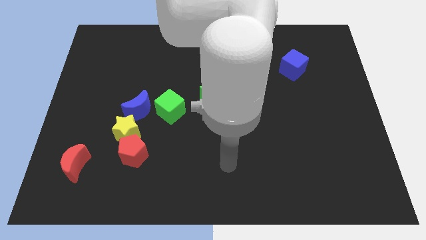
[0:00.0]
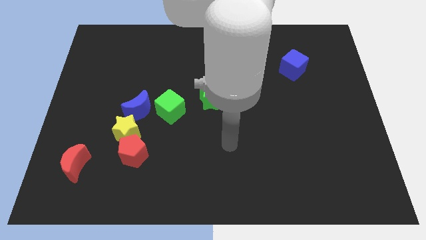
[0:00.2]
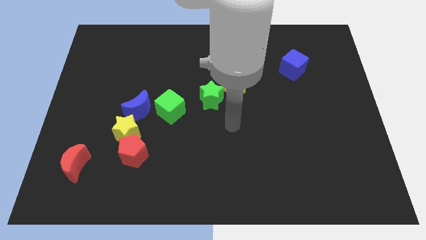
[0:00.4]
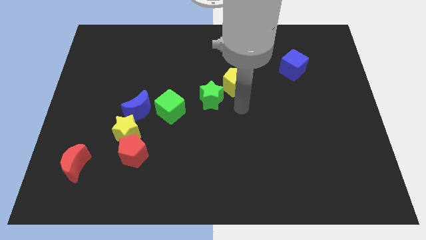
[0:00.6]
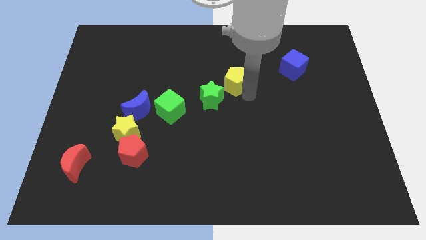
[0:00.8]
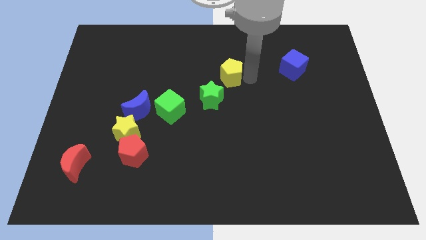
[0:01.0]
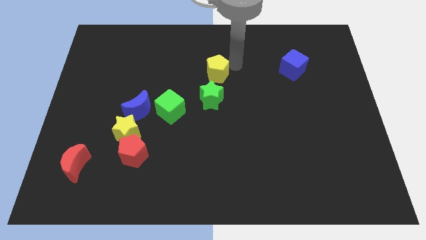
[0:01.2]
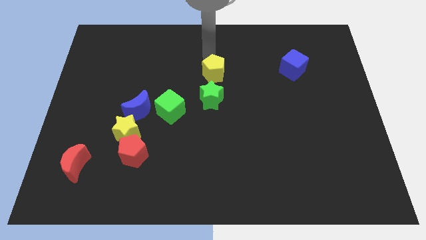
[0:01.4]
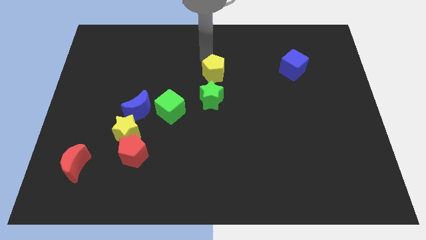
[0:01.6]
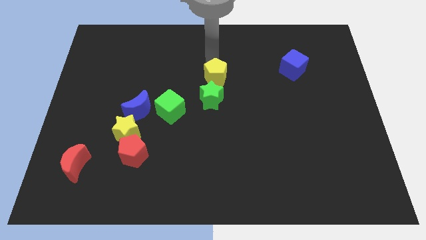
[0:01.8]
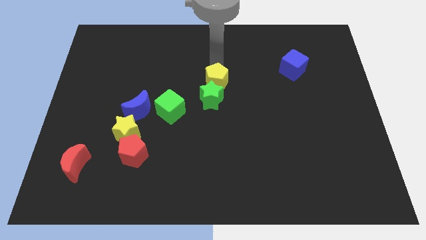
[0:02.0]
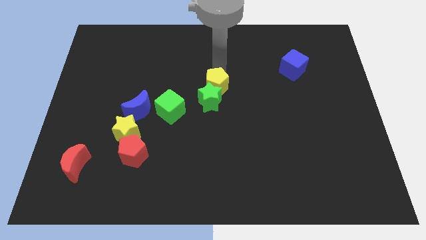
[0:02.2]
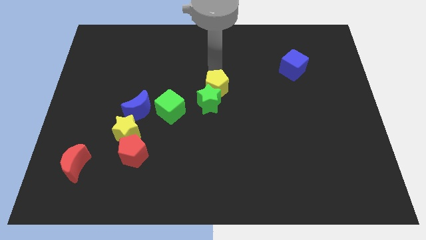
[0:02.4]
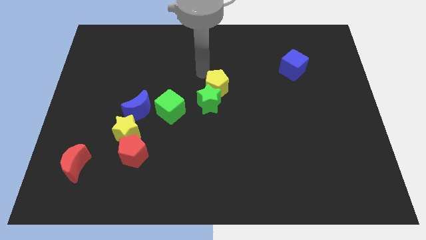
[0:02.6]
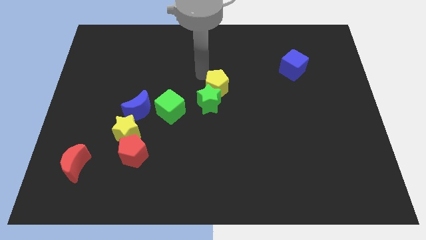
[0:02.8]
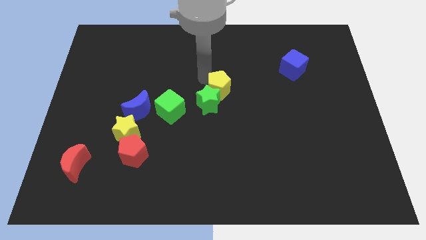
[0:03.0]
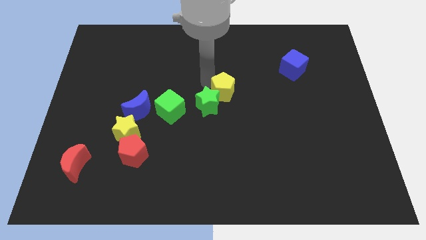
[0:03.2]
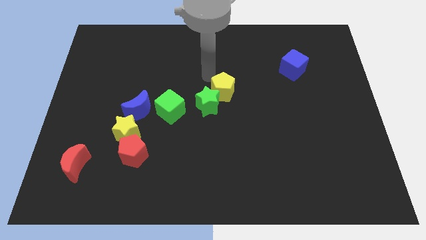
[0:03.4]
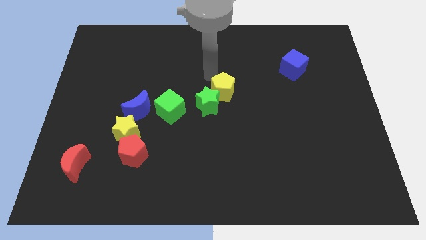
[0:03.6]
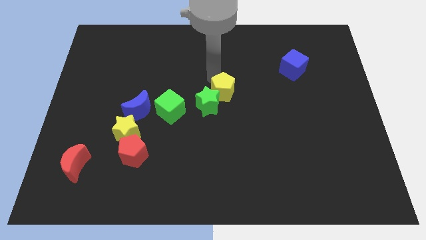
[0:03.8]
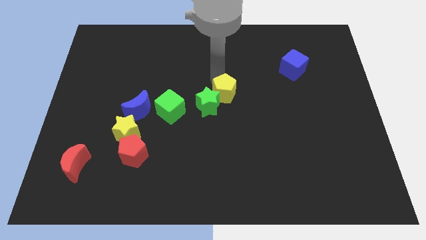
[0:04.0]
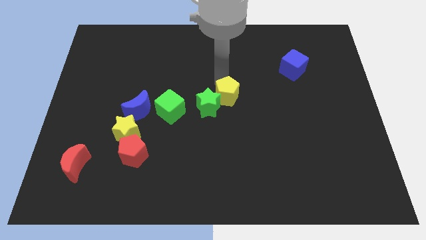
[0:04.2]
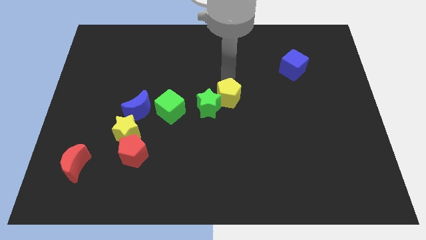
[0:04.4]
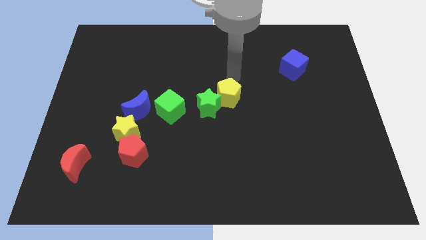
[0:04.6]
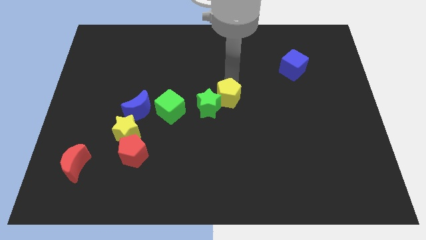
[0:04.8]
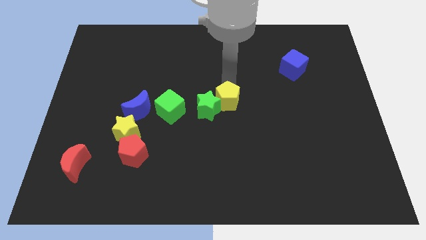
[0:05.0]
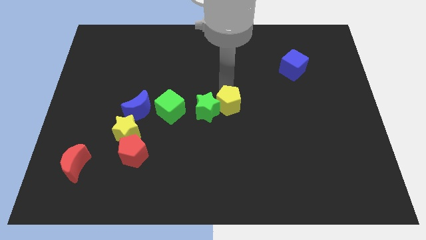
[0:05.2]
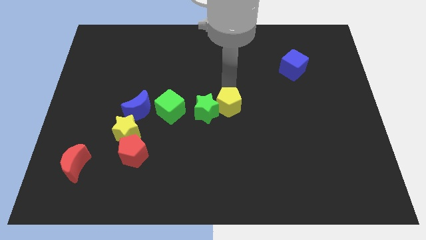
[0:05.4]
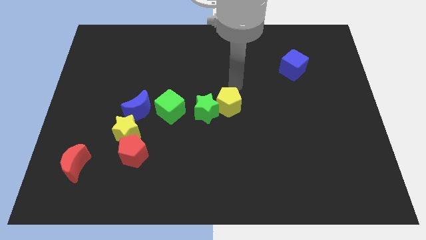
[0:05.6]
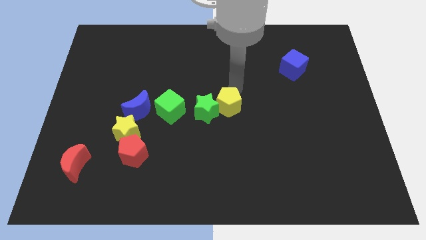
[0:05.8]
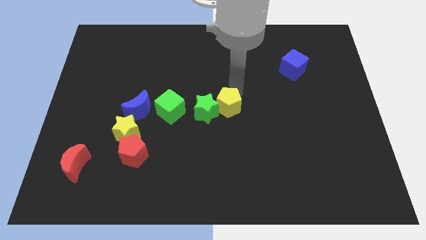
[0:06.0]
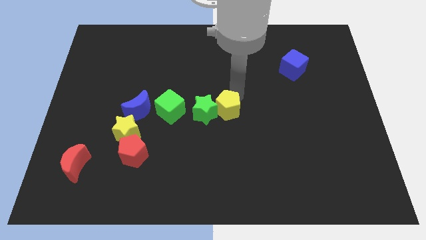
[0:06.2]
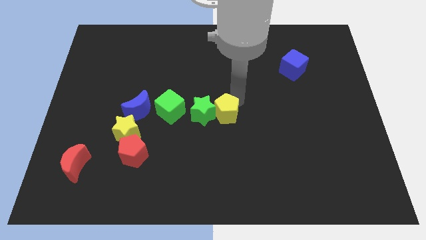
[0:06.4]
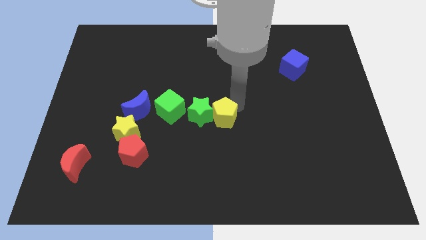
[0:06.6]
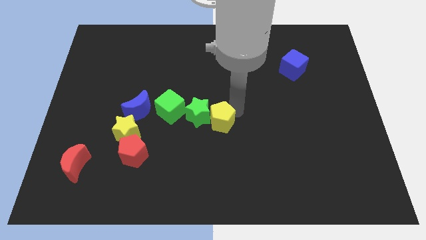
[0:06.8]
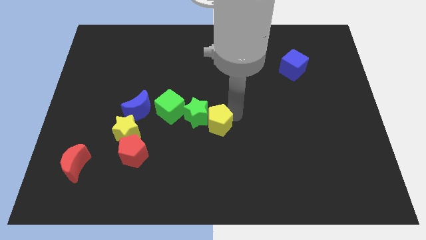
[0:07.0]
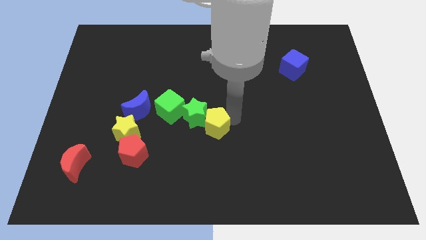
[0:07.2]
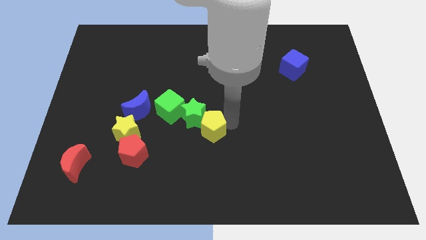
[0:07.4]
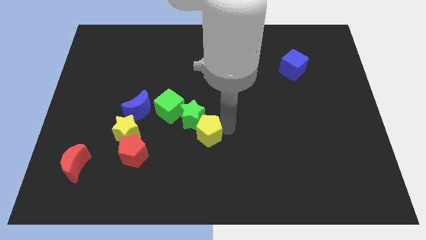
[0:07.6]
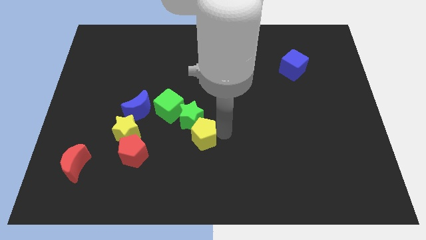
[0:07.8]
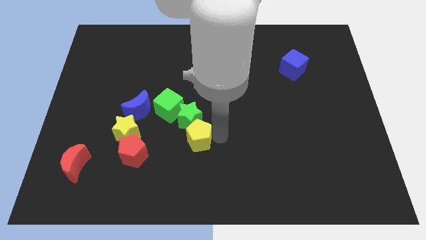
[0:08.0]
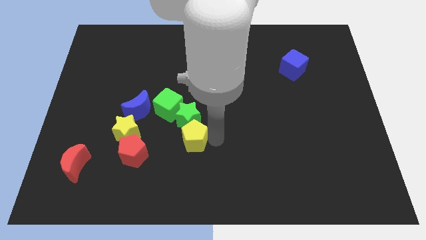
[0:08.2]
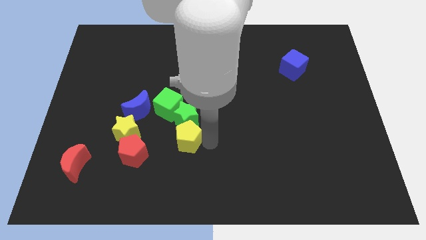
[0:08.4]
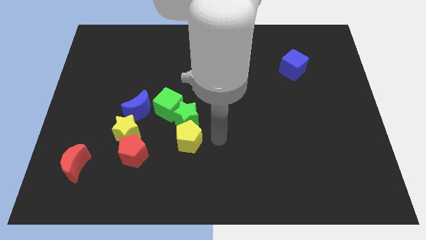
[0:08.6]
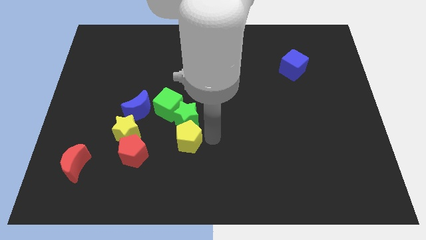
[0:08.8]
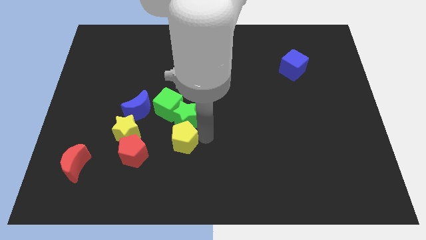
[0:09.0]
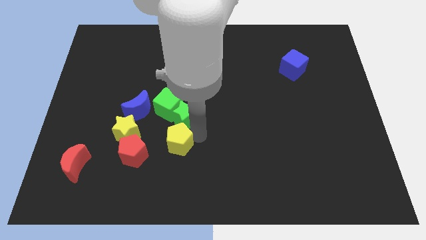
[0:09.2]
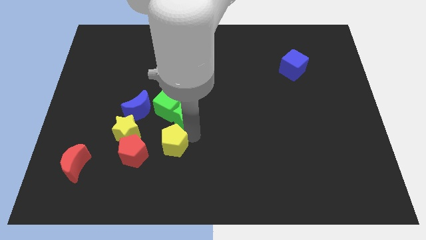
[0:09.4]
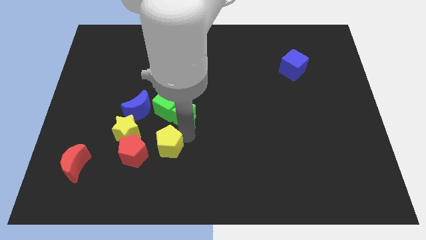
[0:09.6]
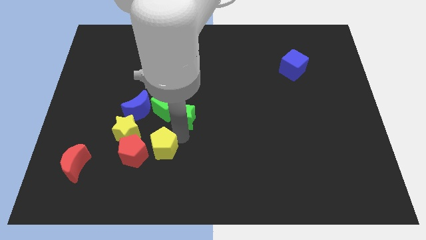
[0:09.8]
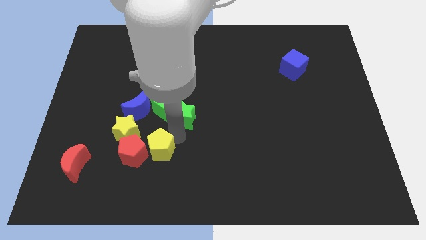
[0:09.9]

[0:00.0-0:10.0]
push the yellow pentagon towards the red pentagon

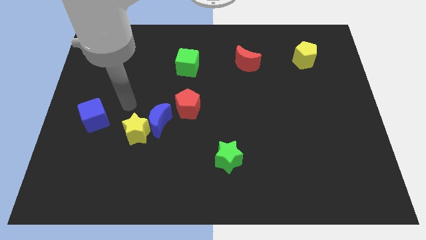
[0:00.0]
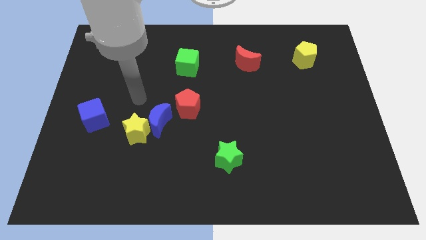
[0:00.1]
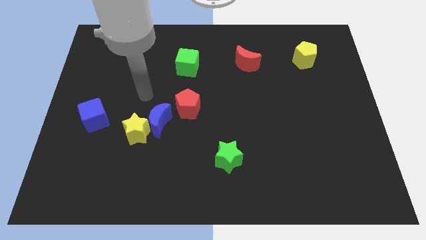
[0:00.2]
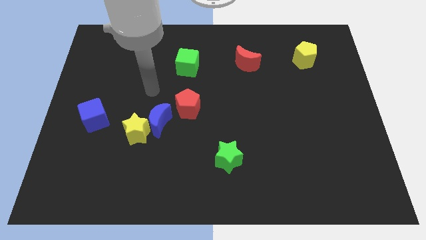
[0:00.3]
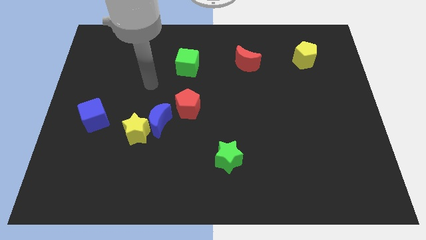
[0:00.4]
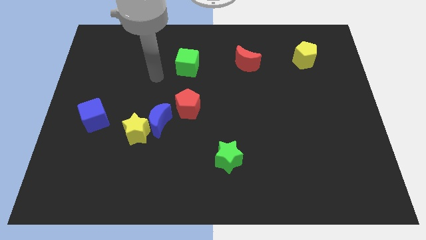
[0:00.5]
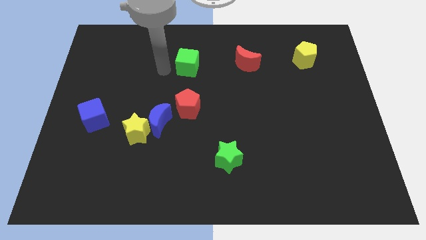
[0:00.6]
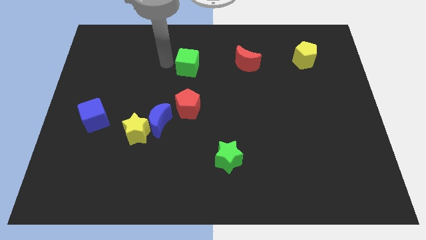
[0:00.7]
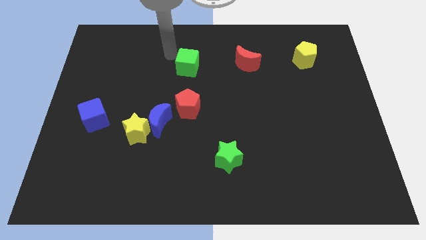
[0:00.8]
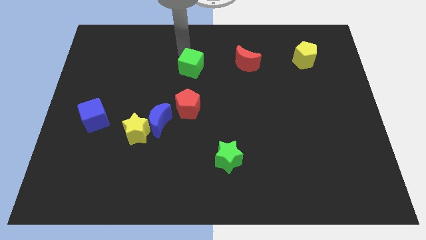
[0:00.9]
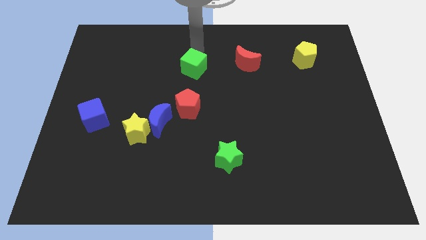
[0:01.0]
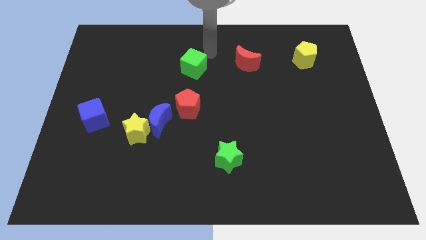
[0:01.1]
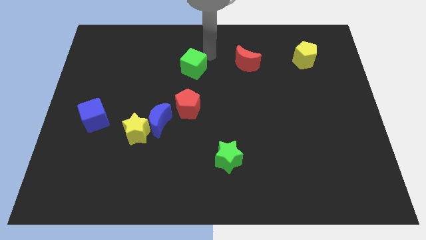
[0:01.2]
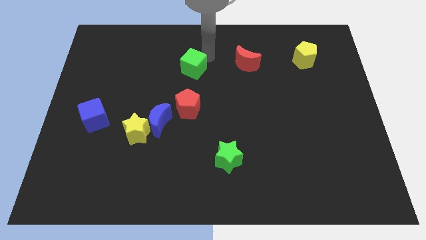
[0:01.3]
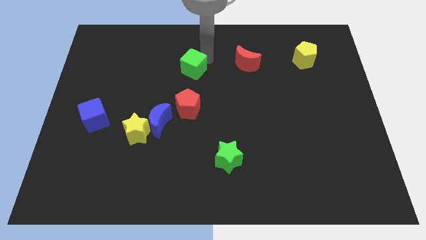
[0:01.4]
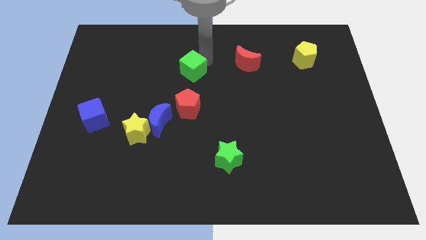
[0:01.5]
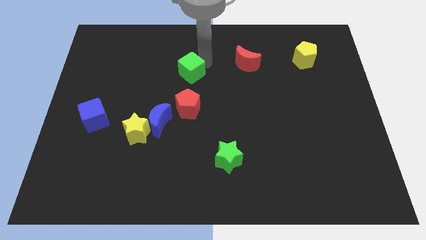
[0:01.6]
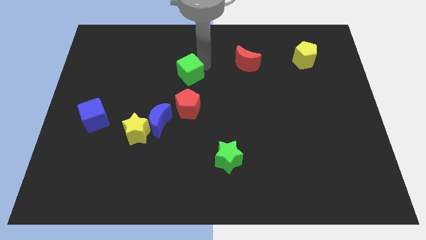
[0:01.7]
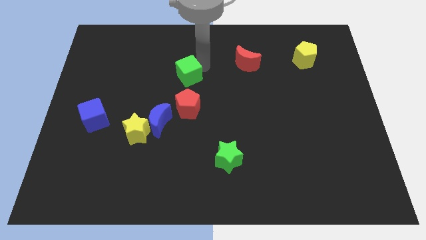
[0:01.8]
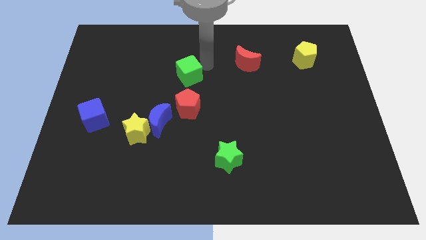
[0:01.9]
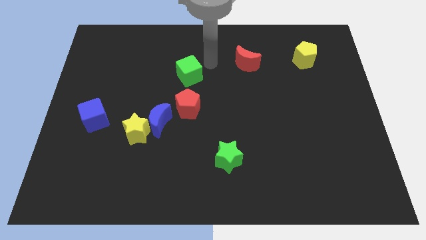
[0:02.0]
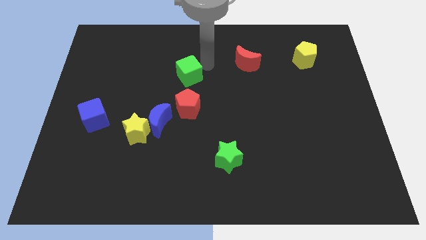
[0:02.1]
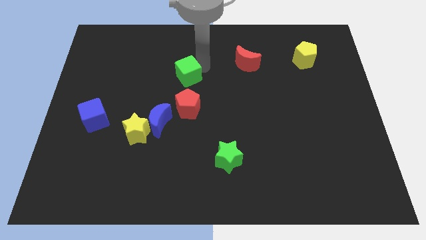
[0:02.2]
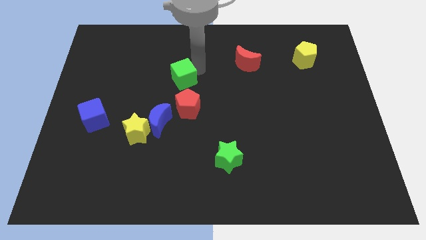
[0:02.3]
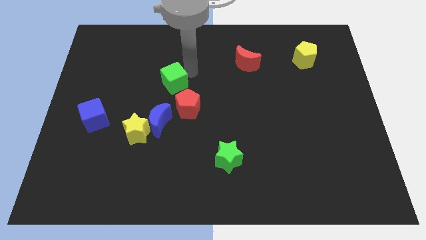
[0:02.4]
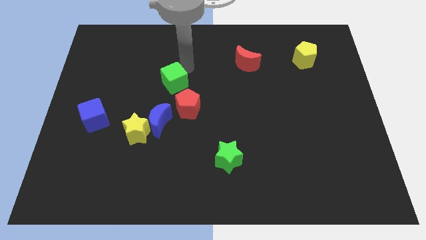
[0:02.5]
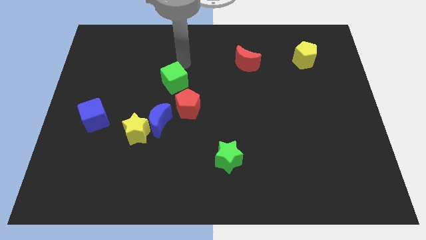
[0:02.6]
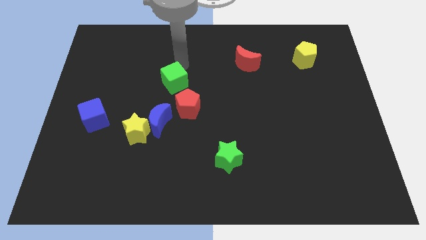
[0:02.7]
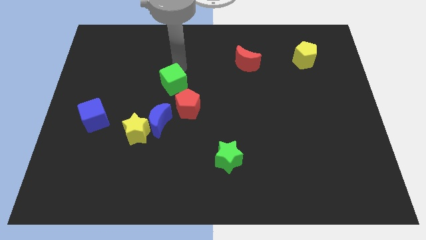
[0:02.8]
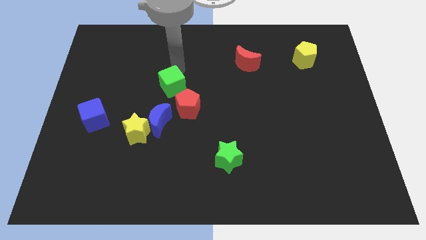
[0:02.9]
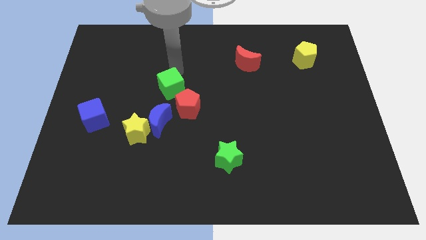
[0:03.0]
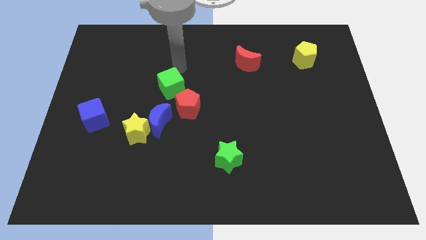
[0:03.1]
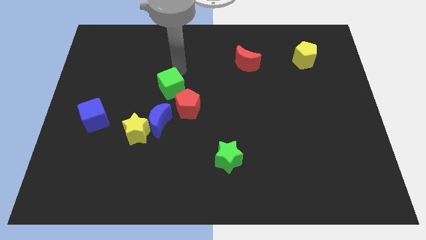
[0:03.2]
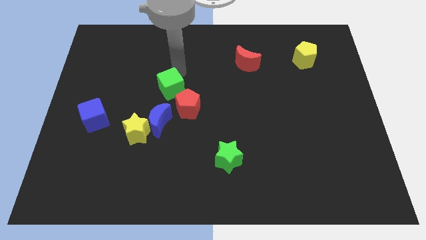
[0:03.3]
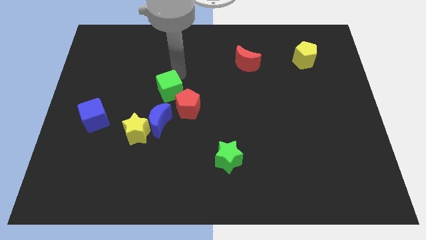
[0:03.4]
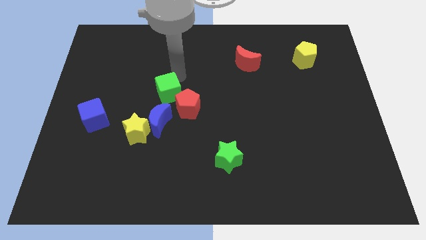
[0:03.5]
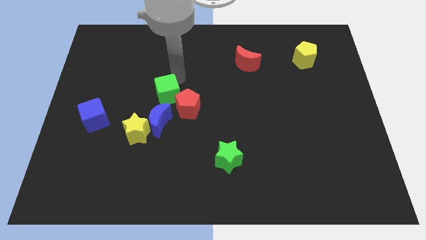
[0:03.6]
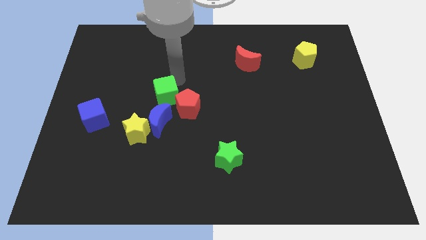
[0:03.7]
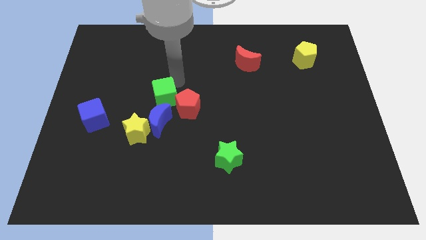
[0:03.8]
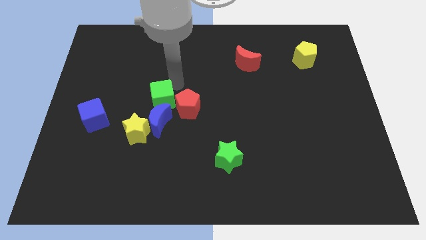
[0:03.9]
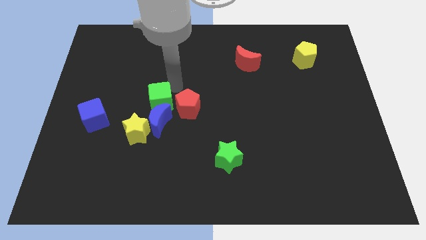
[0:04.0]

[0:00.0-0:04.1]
push the green cube to the blue moon
